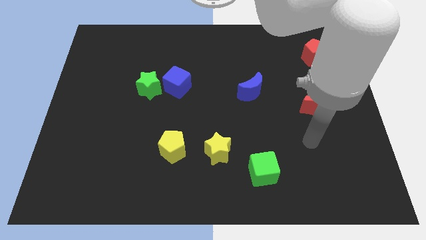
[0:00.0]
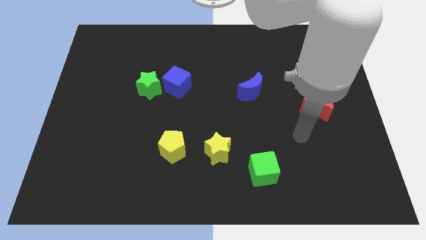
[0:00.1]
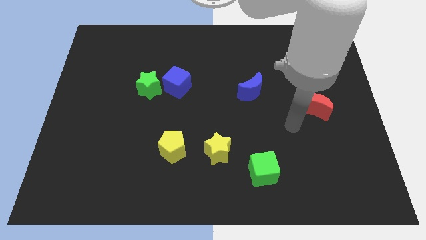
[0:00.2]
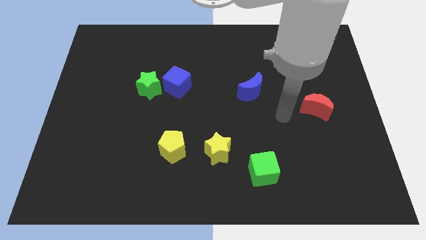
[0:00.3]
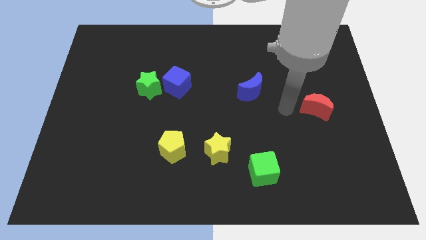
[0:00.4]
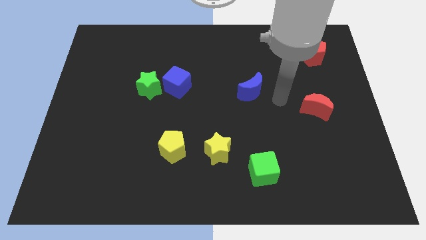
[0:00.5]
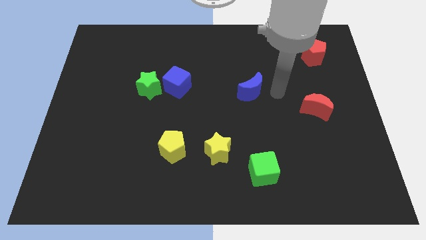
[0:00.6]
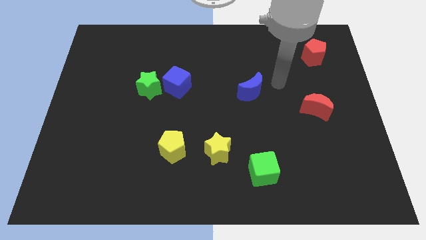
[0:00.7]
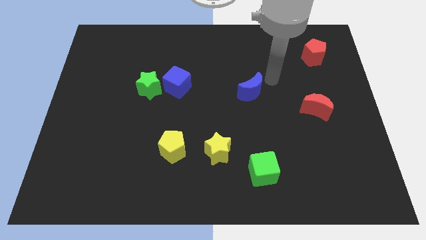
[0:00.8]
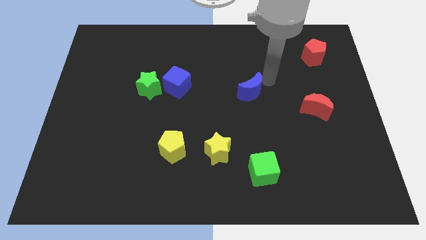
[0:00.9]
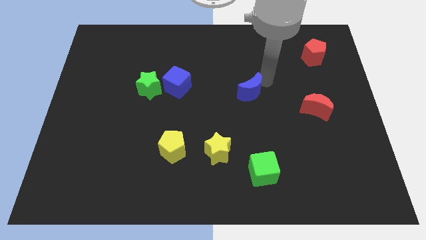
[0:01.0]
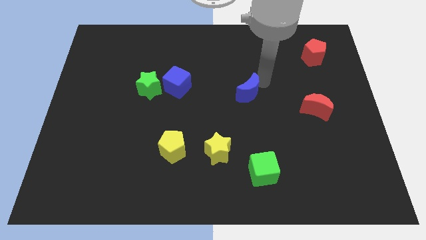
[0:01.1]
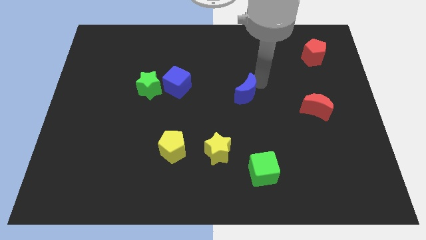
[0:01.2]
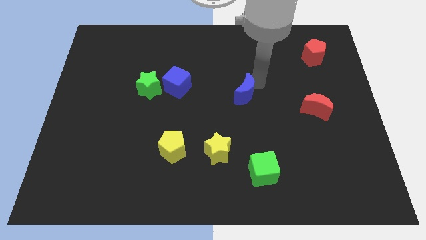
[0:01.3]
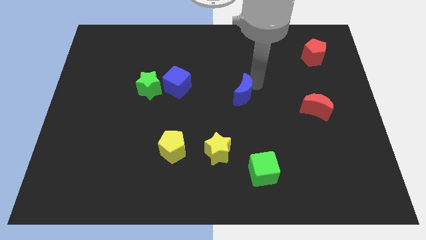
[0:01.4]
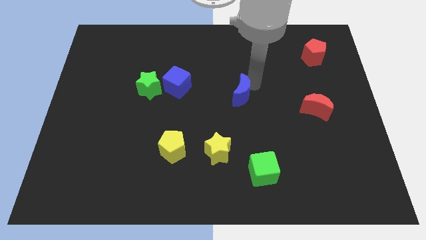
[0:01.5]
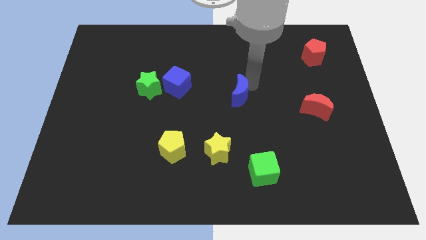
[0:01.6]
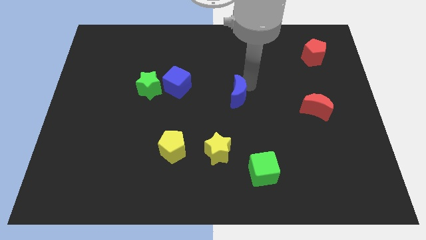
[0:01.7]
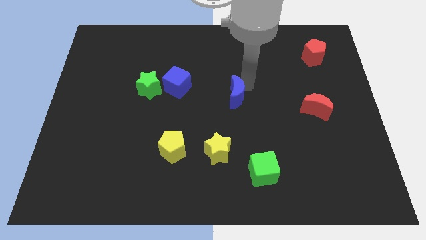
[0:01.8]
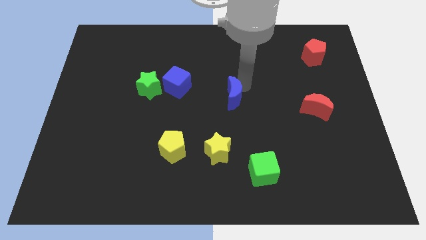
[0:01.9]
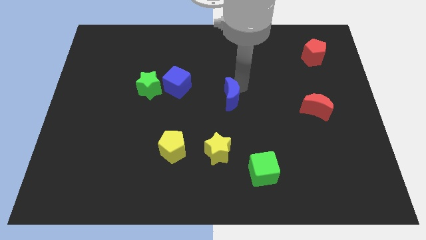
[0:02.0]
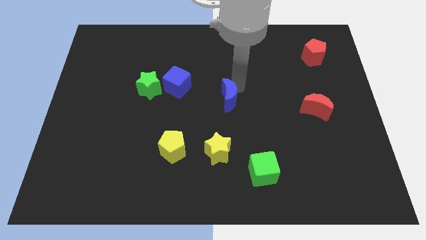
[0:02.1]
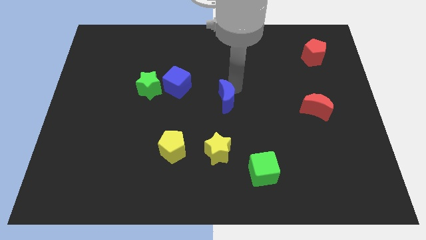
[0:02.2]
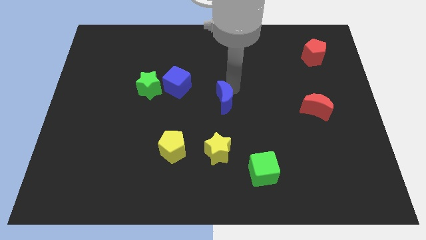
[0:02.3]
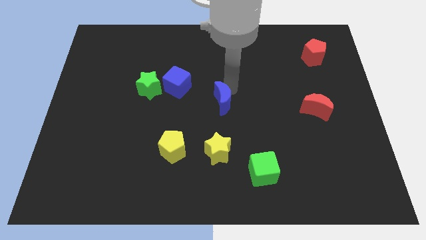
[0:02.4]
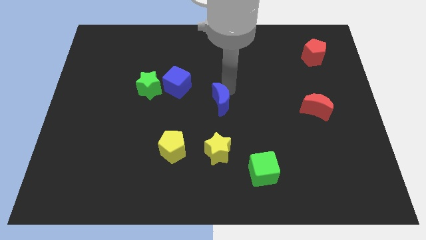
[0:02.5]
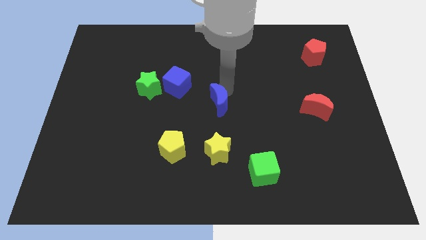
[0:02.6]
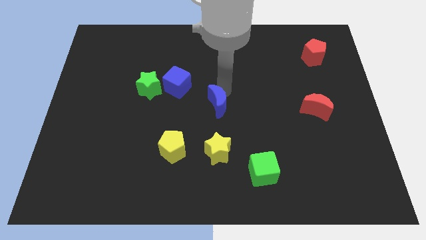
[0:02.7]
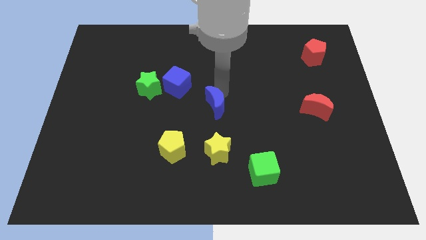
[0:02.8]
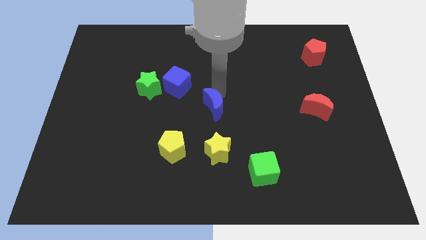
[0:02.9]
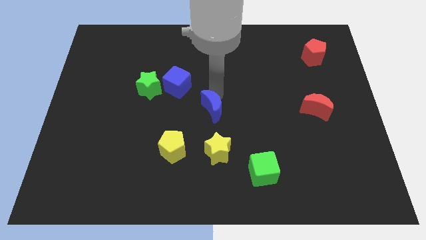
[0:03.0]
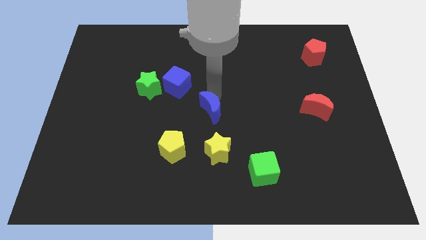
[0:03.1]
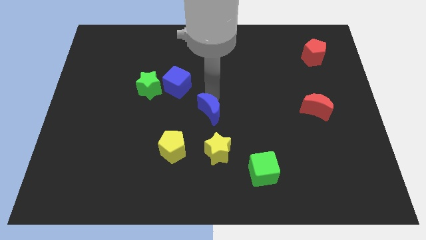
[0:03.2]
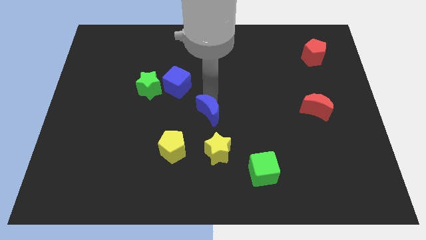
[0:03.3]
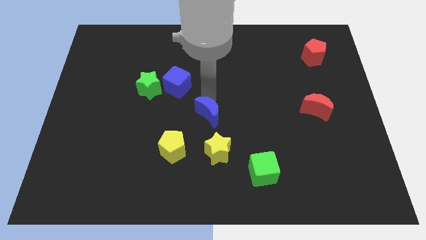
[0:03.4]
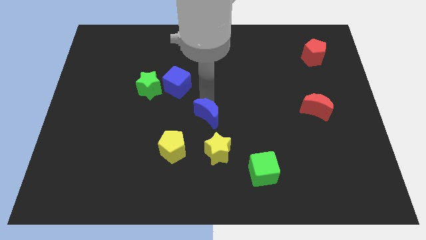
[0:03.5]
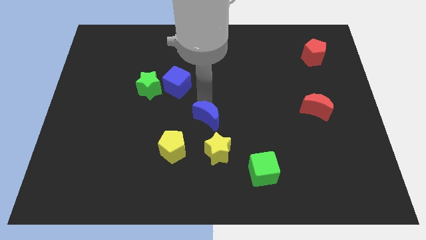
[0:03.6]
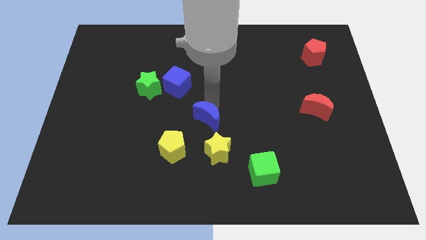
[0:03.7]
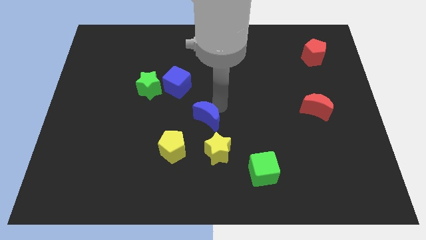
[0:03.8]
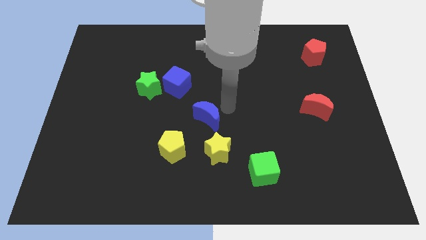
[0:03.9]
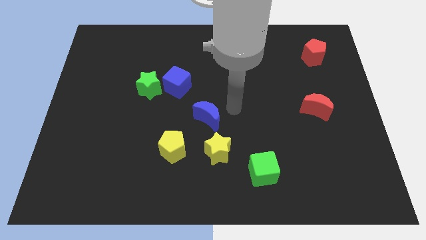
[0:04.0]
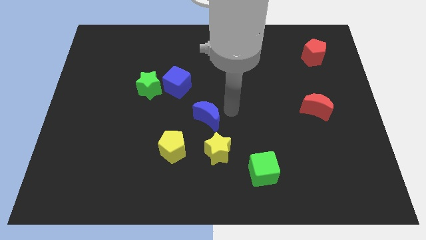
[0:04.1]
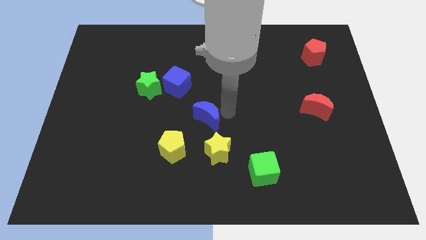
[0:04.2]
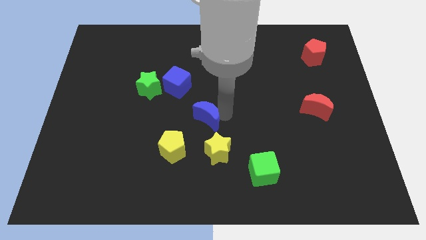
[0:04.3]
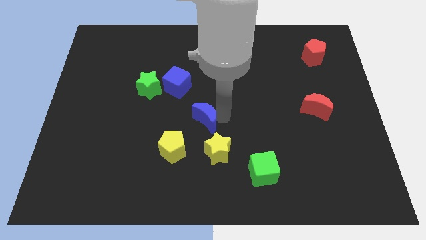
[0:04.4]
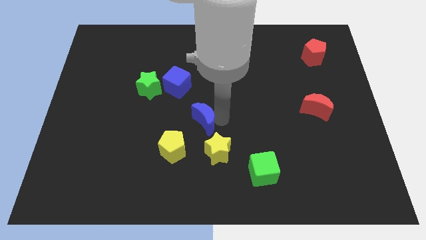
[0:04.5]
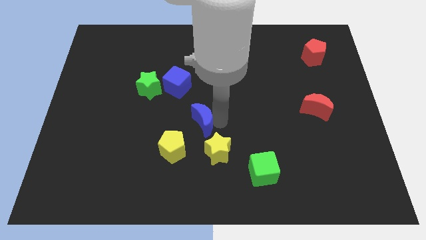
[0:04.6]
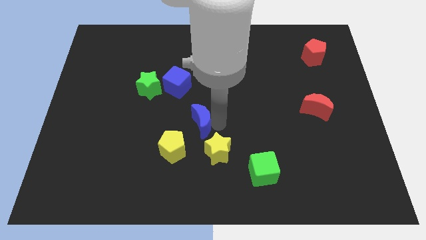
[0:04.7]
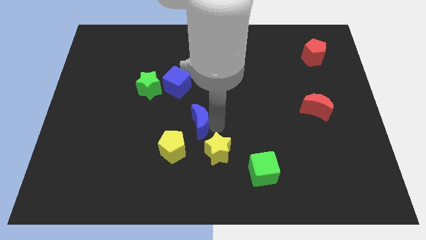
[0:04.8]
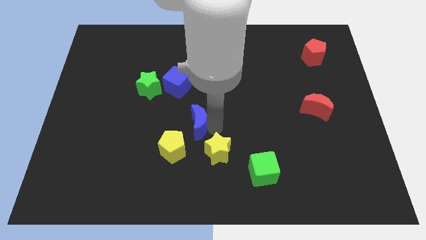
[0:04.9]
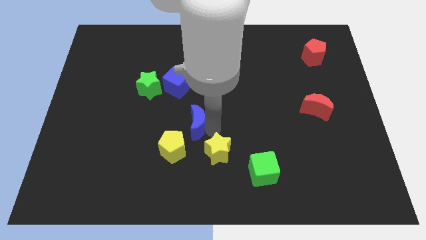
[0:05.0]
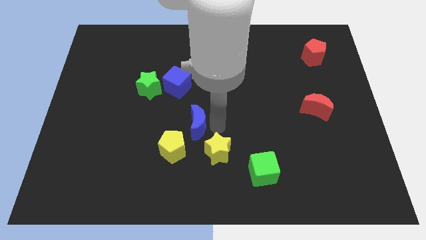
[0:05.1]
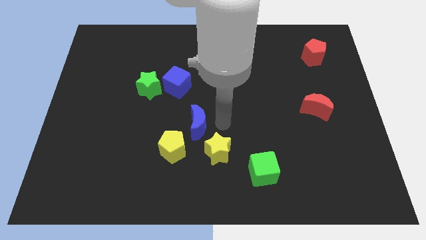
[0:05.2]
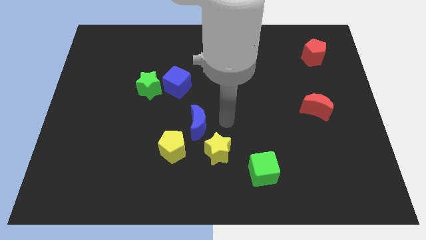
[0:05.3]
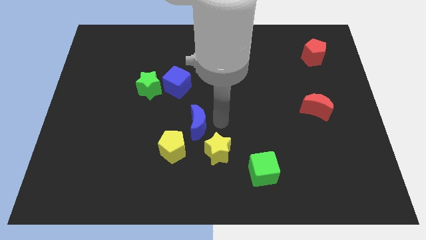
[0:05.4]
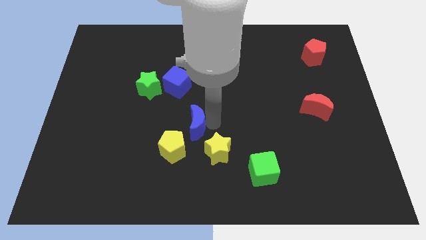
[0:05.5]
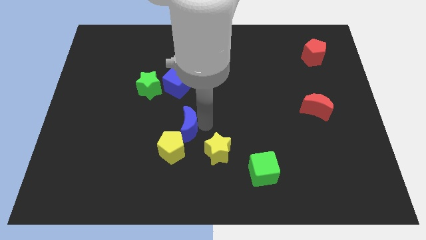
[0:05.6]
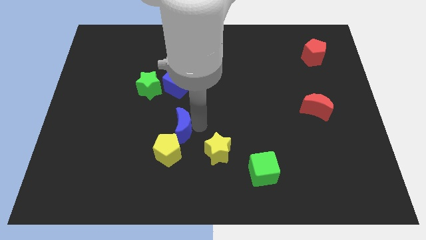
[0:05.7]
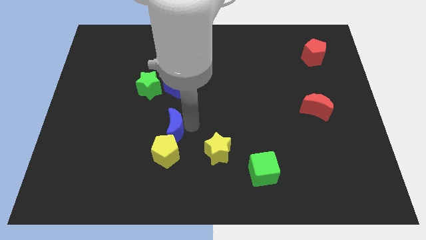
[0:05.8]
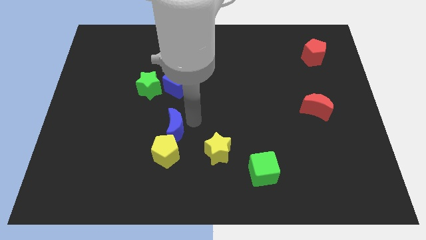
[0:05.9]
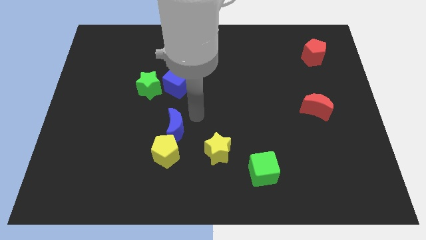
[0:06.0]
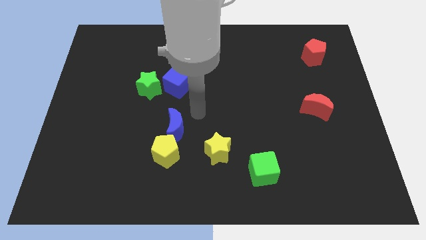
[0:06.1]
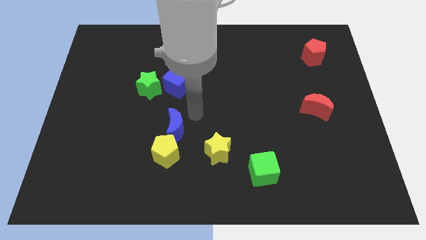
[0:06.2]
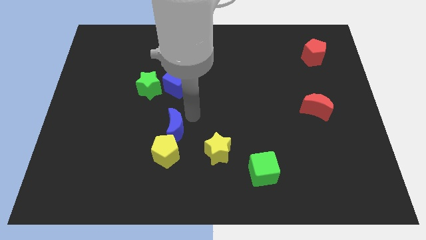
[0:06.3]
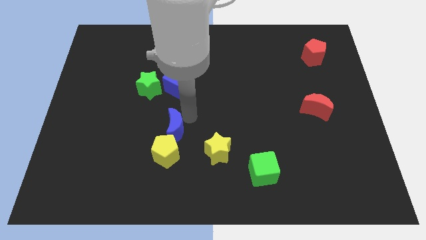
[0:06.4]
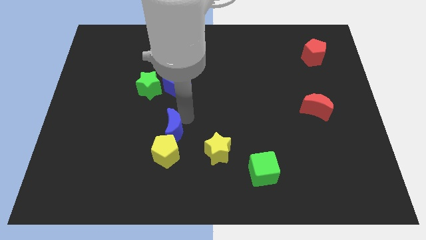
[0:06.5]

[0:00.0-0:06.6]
push the blue moon down and left

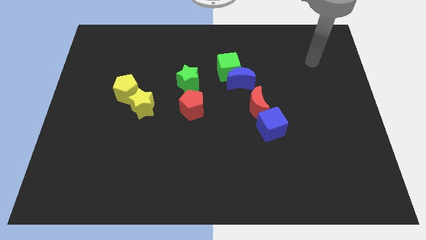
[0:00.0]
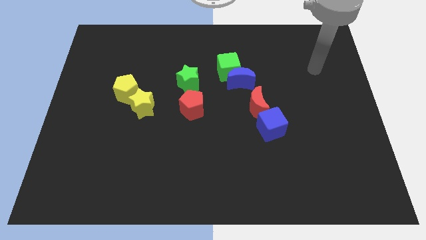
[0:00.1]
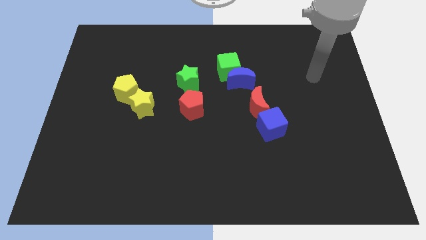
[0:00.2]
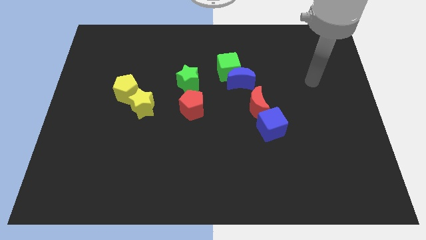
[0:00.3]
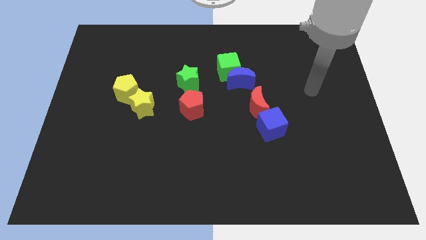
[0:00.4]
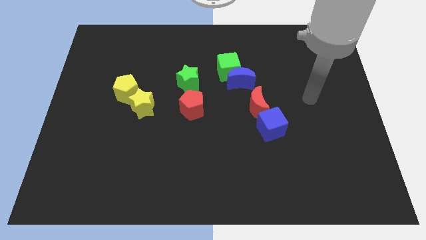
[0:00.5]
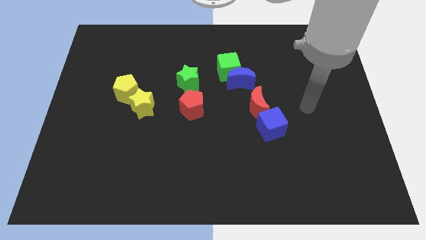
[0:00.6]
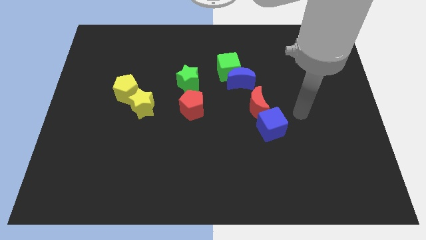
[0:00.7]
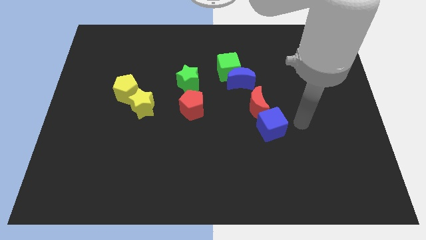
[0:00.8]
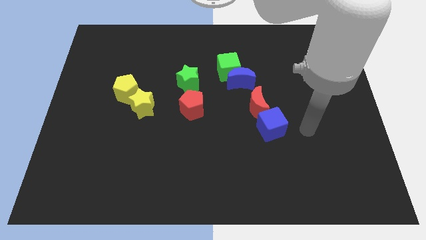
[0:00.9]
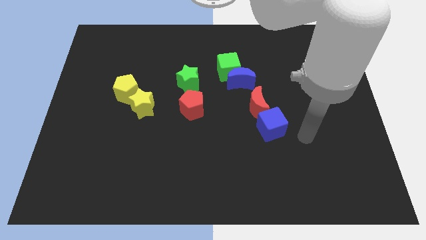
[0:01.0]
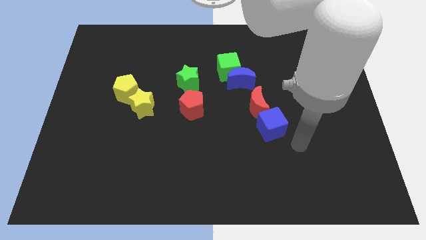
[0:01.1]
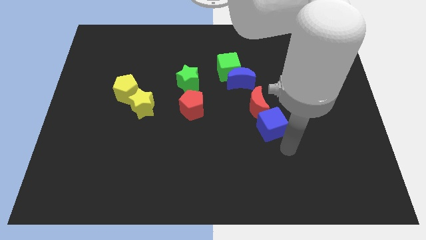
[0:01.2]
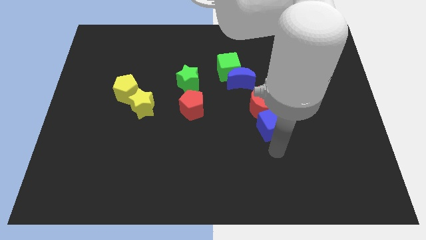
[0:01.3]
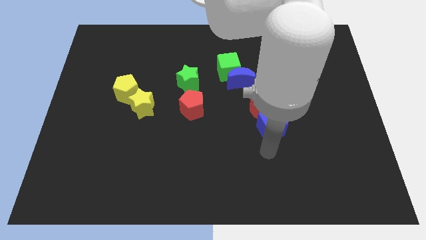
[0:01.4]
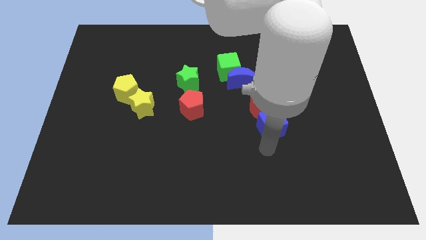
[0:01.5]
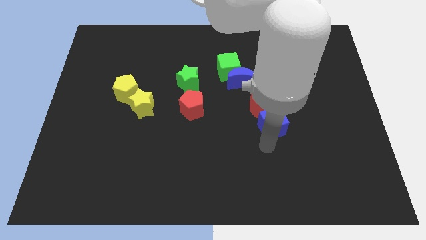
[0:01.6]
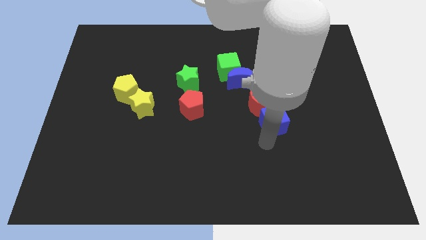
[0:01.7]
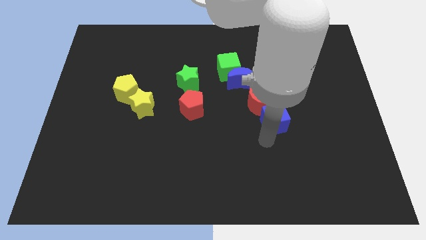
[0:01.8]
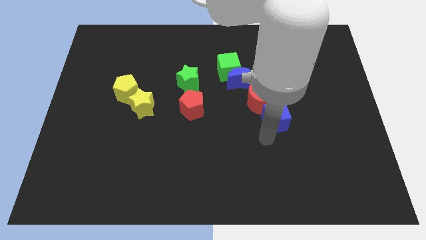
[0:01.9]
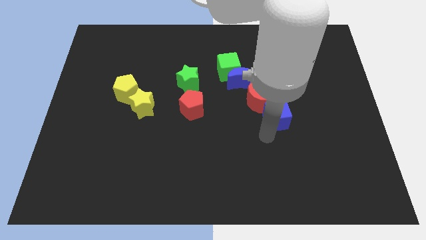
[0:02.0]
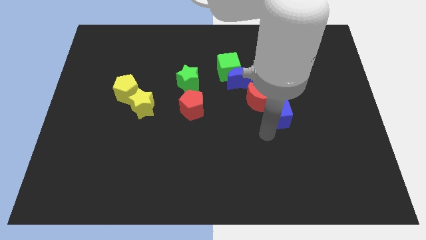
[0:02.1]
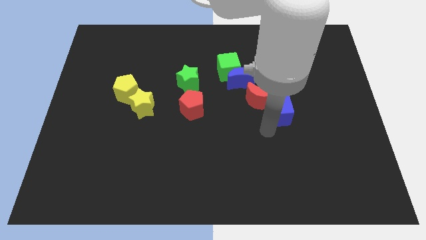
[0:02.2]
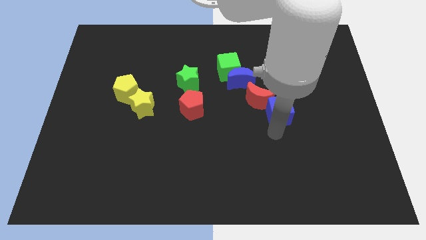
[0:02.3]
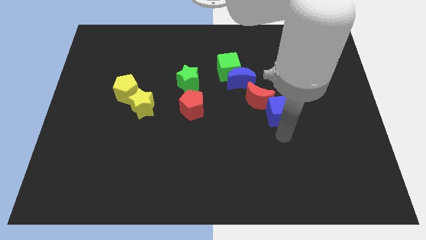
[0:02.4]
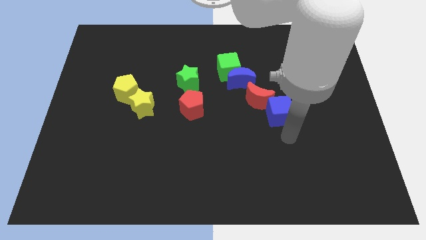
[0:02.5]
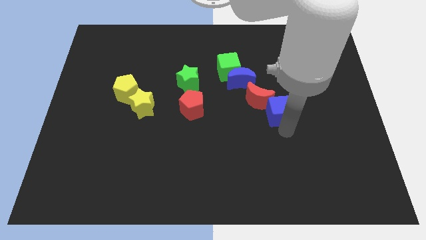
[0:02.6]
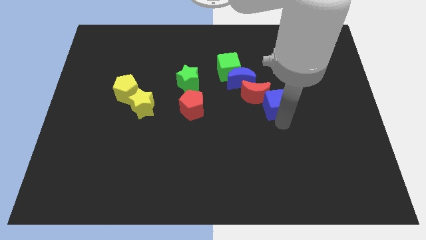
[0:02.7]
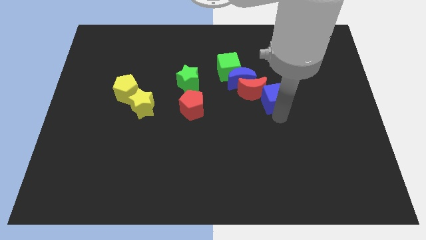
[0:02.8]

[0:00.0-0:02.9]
slightly move the blue cube upwards
